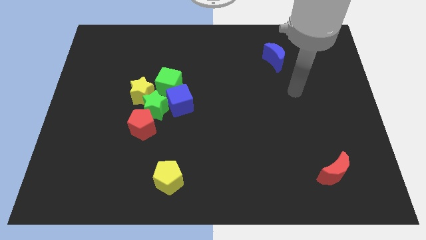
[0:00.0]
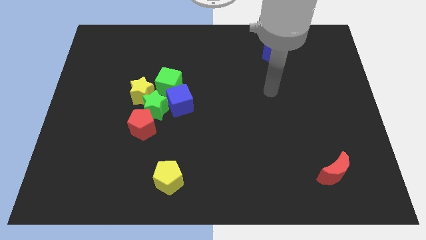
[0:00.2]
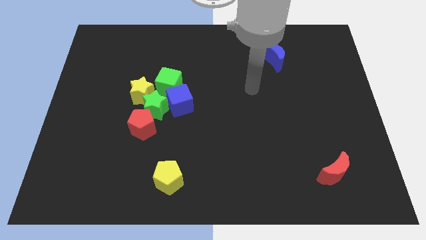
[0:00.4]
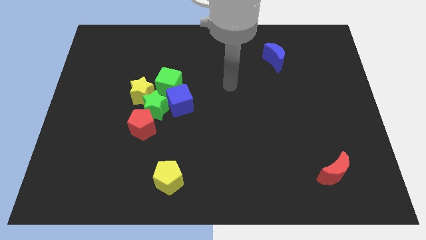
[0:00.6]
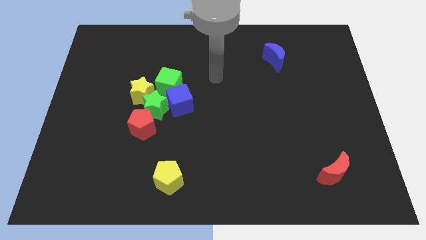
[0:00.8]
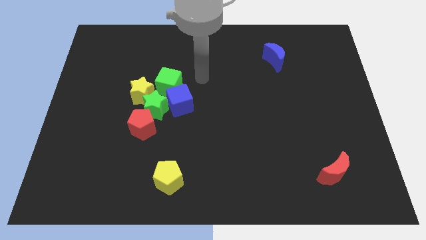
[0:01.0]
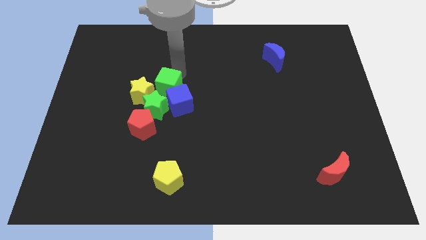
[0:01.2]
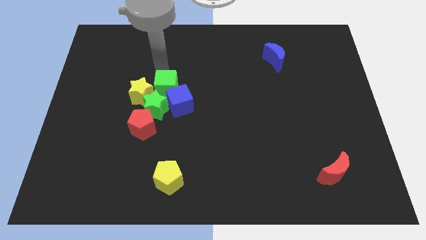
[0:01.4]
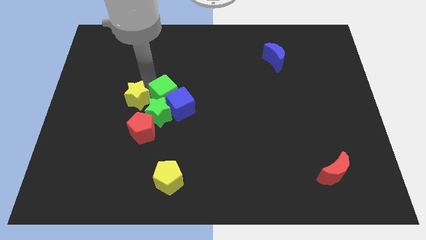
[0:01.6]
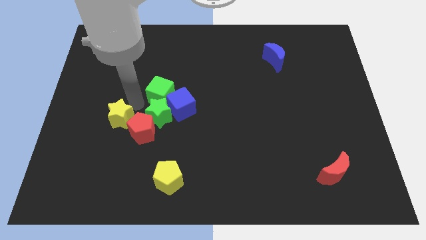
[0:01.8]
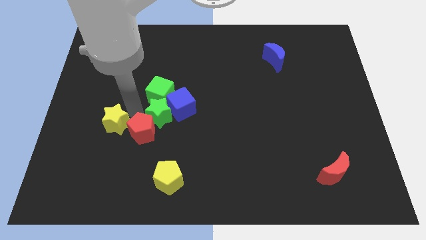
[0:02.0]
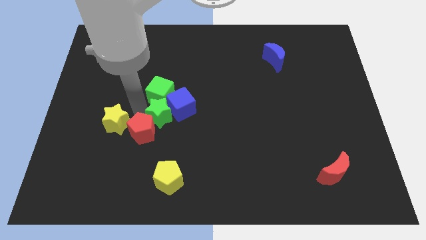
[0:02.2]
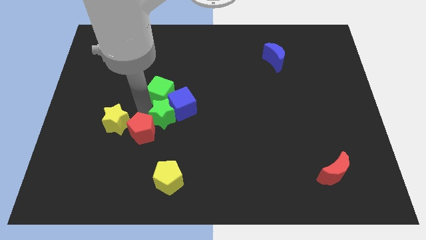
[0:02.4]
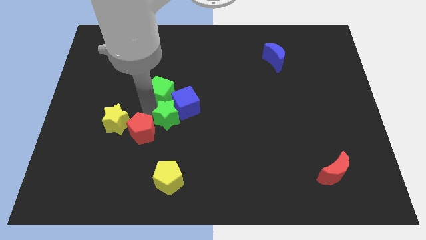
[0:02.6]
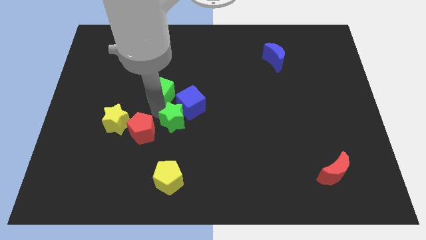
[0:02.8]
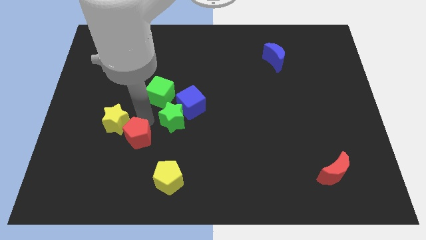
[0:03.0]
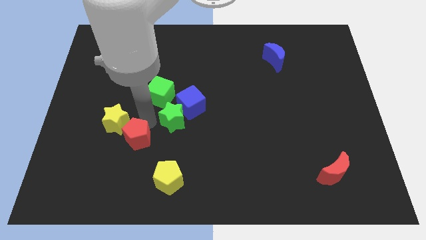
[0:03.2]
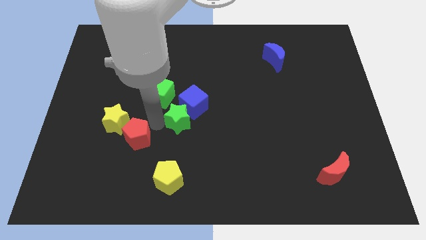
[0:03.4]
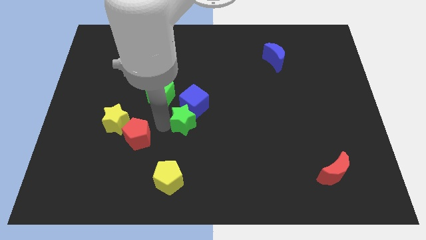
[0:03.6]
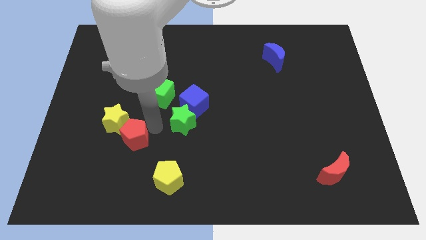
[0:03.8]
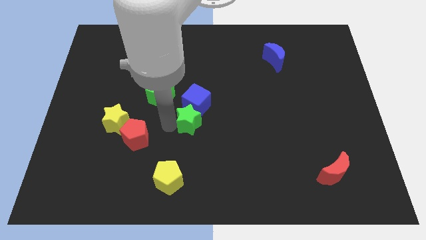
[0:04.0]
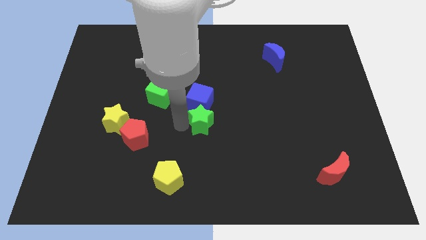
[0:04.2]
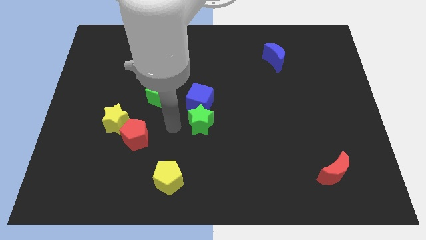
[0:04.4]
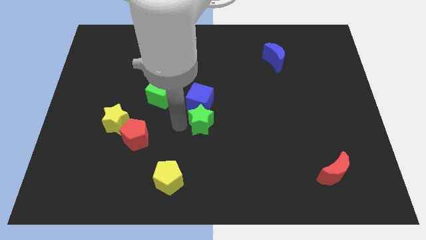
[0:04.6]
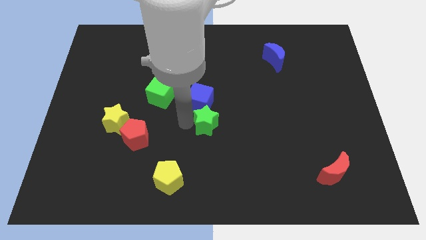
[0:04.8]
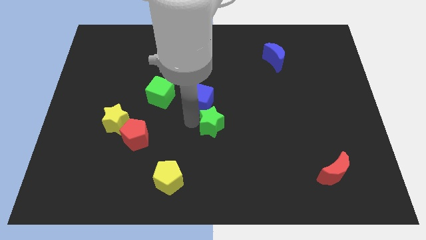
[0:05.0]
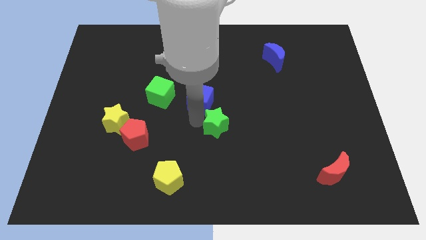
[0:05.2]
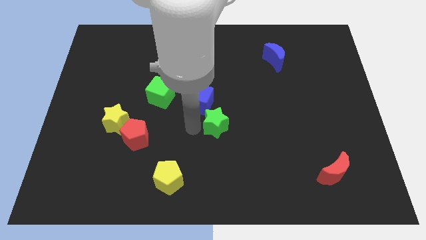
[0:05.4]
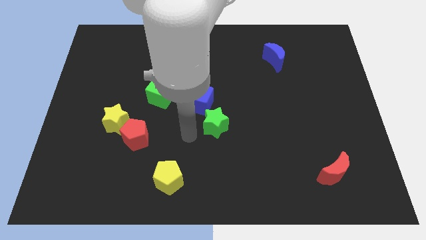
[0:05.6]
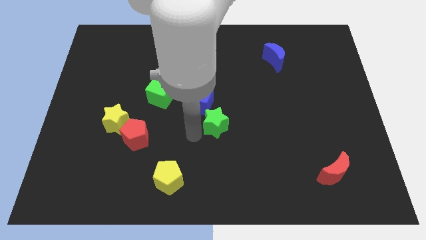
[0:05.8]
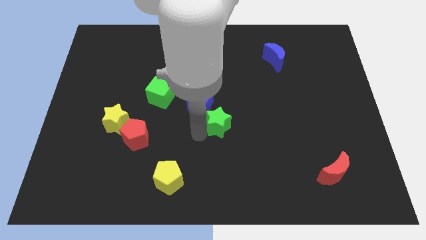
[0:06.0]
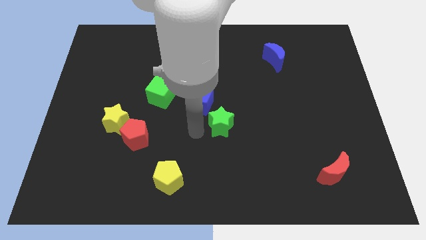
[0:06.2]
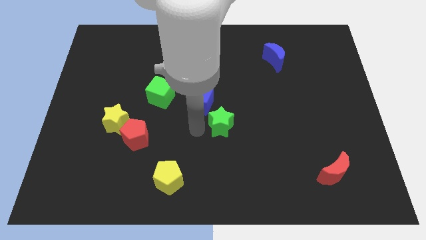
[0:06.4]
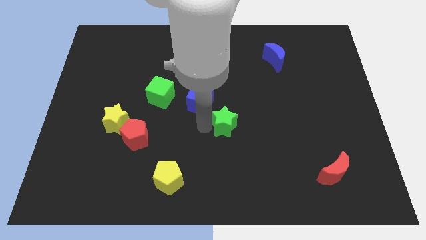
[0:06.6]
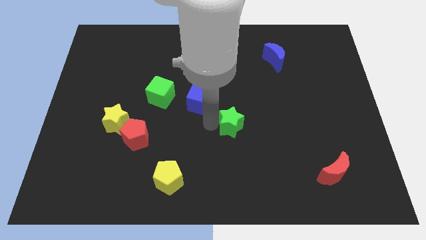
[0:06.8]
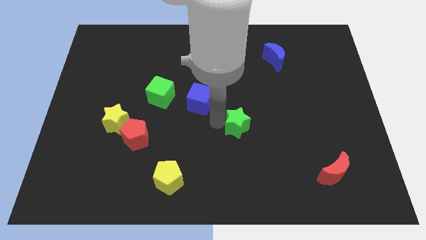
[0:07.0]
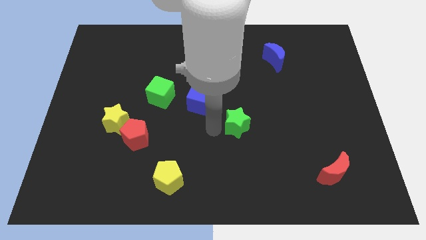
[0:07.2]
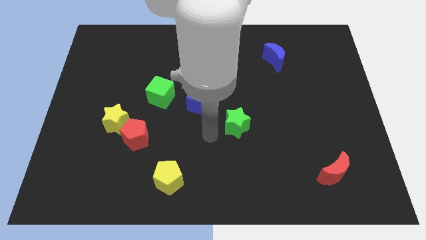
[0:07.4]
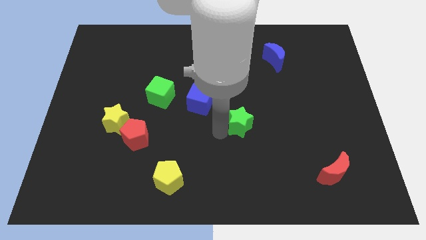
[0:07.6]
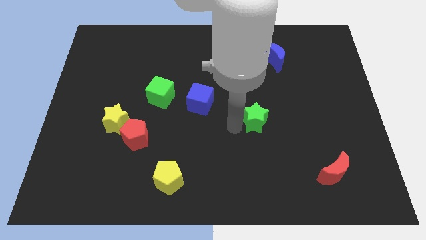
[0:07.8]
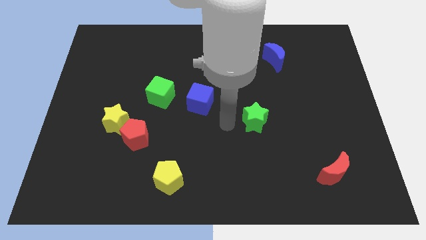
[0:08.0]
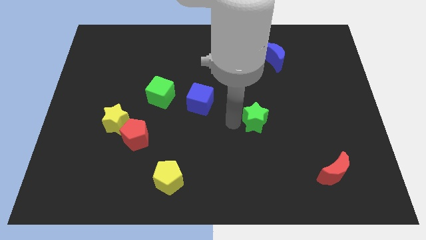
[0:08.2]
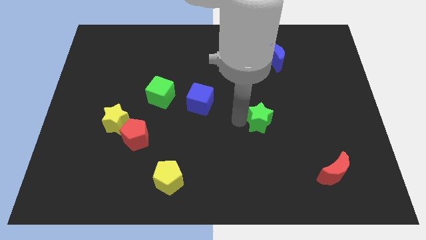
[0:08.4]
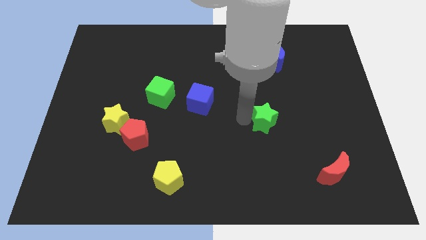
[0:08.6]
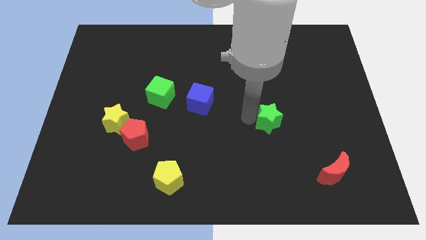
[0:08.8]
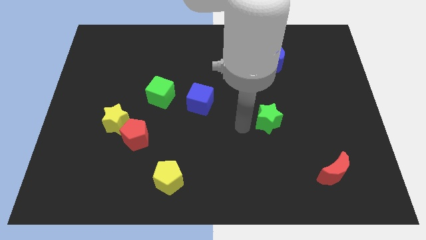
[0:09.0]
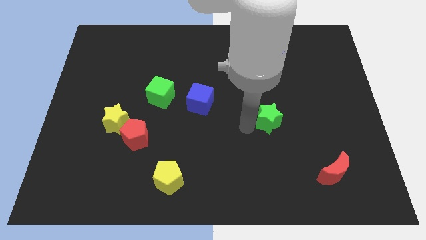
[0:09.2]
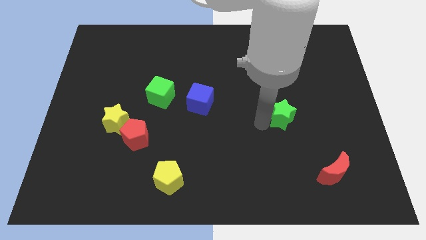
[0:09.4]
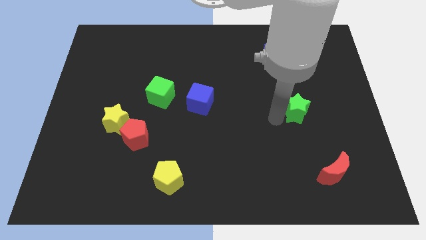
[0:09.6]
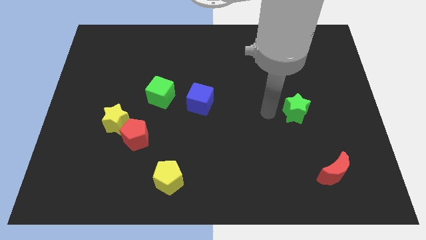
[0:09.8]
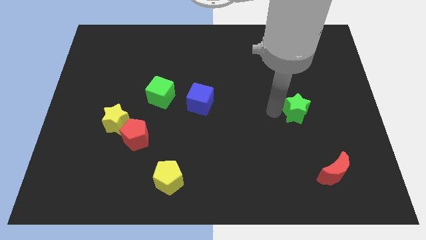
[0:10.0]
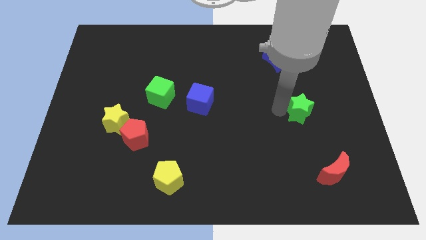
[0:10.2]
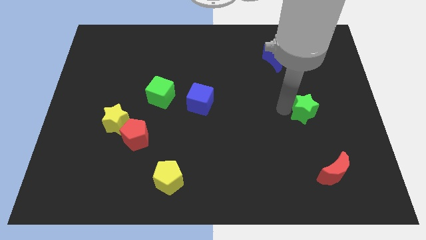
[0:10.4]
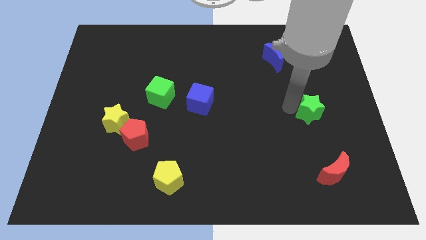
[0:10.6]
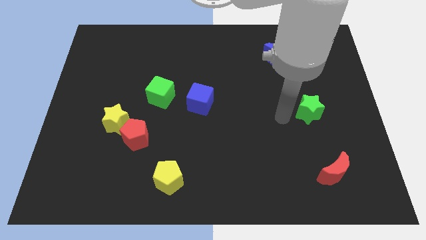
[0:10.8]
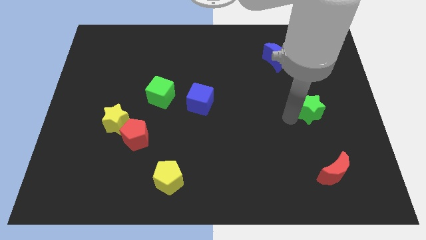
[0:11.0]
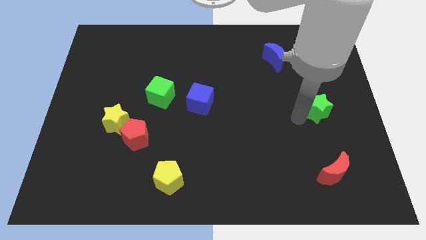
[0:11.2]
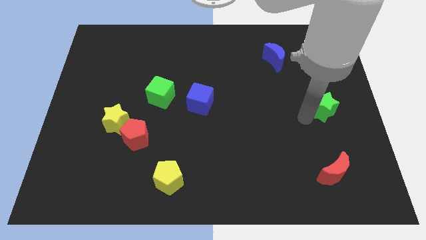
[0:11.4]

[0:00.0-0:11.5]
push the green star to the center right

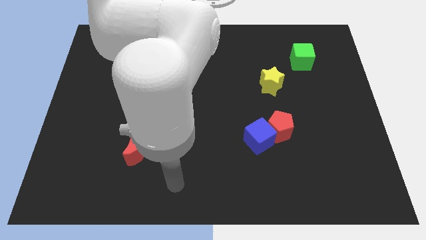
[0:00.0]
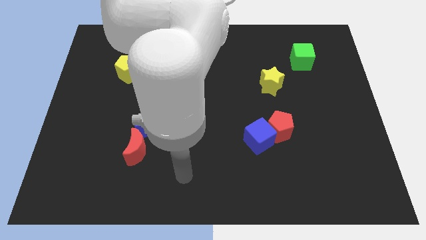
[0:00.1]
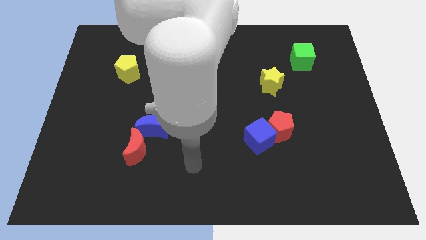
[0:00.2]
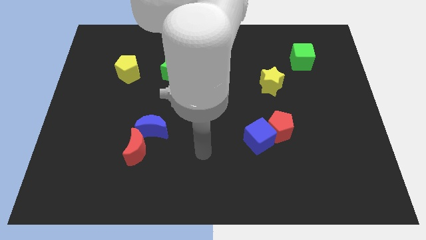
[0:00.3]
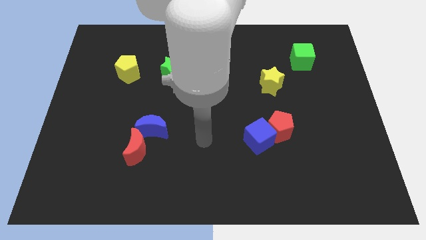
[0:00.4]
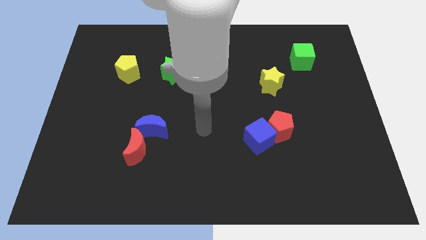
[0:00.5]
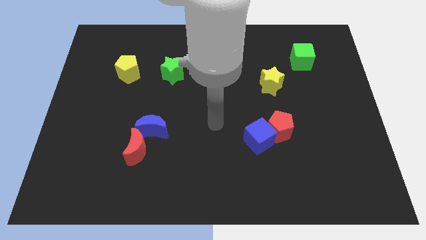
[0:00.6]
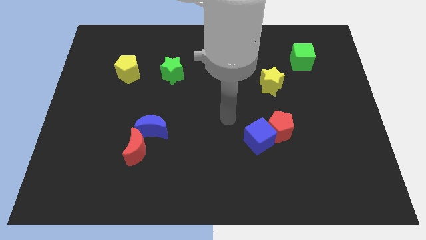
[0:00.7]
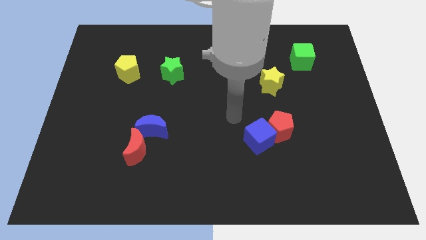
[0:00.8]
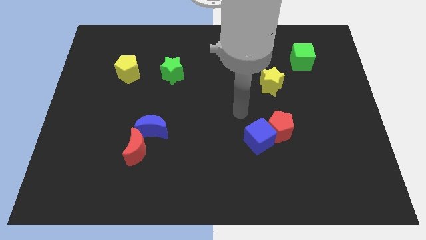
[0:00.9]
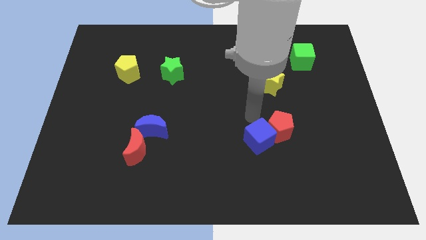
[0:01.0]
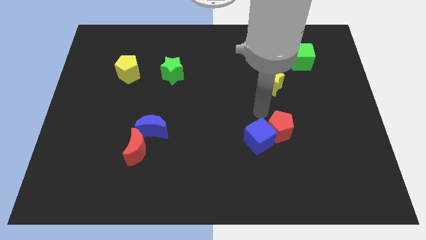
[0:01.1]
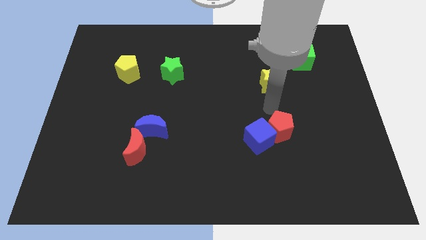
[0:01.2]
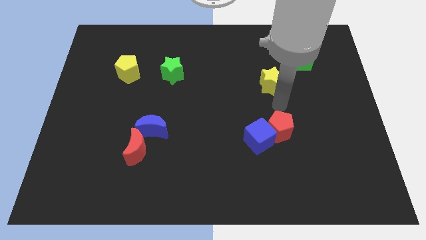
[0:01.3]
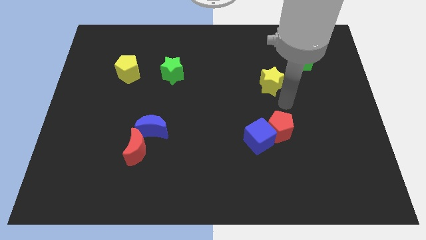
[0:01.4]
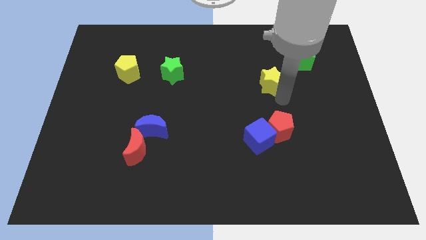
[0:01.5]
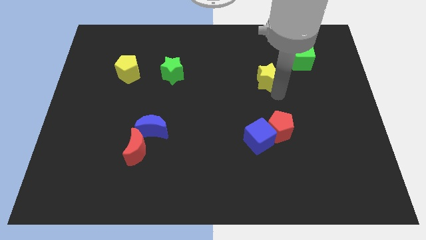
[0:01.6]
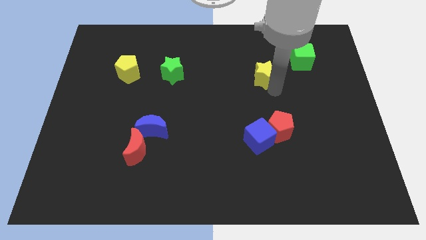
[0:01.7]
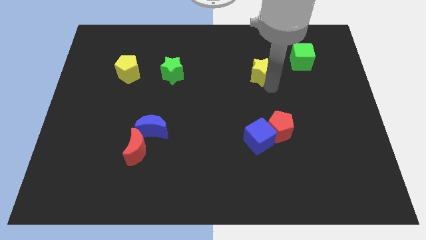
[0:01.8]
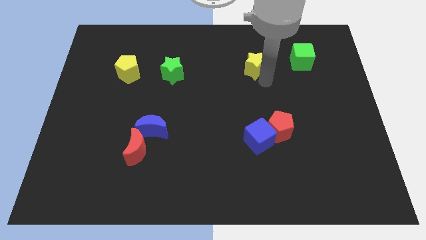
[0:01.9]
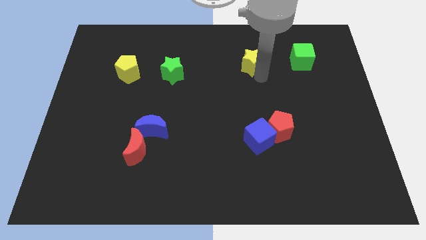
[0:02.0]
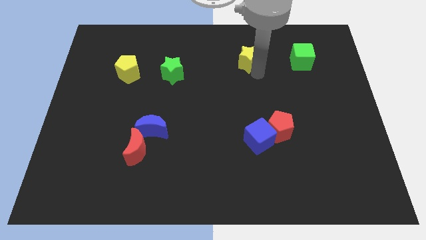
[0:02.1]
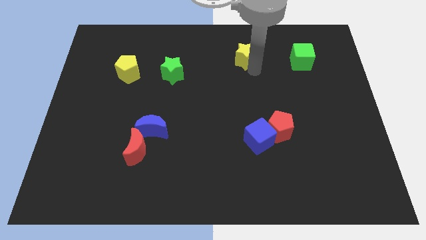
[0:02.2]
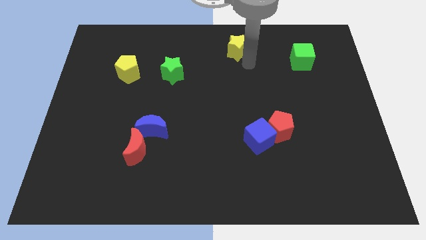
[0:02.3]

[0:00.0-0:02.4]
push the yellow star to the towards your base
